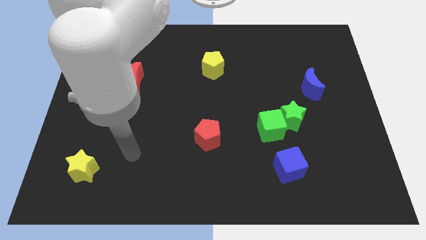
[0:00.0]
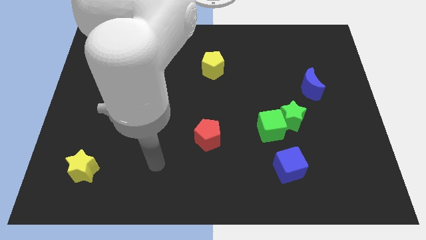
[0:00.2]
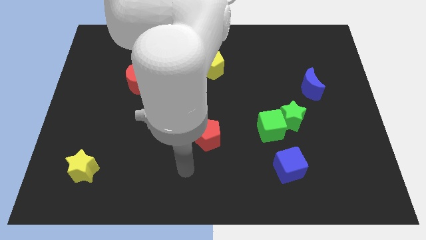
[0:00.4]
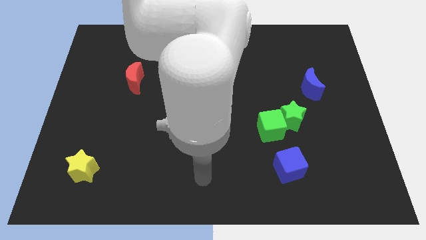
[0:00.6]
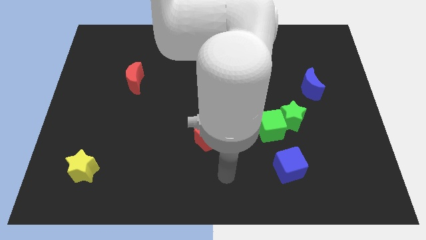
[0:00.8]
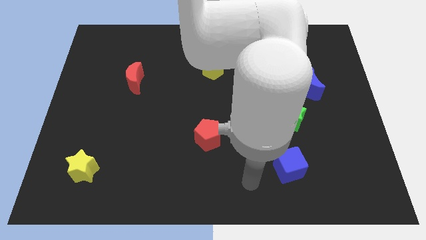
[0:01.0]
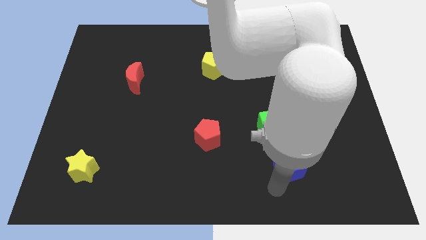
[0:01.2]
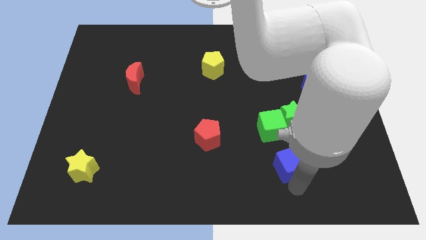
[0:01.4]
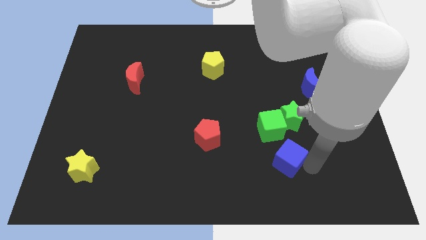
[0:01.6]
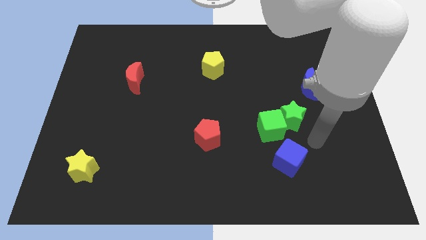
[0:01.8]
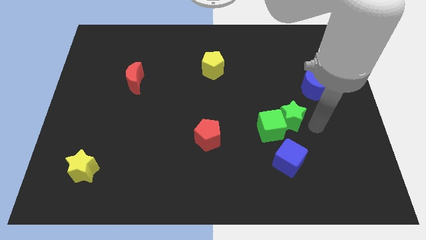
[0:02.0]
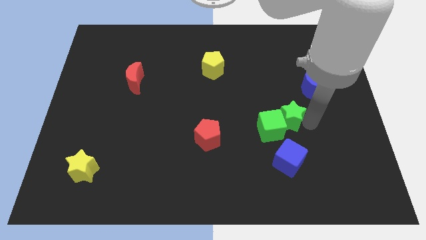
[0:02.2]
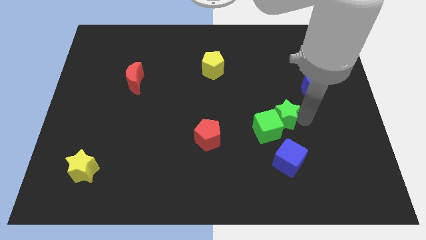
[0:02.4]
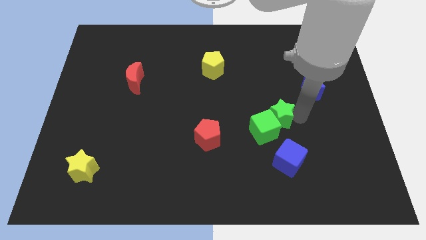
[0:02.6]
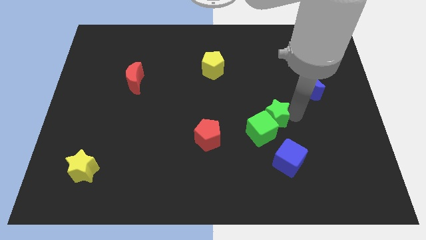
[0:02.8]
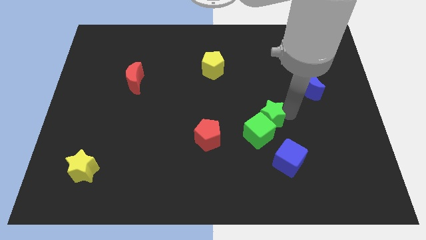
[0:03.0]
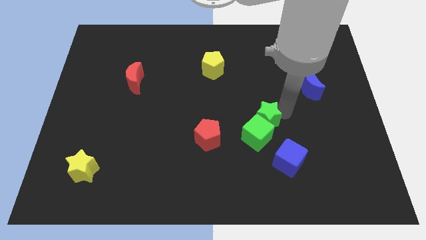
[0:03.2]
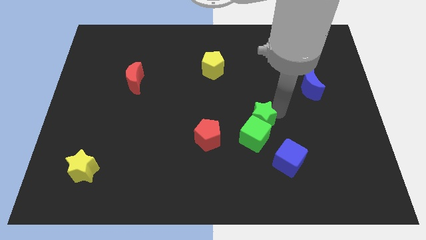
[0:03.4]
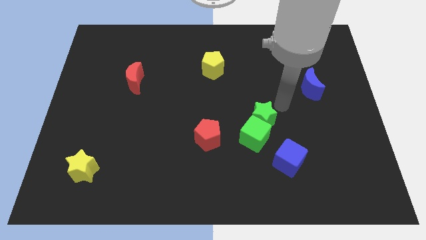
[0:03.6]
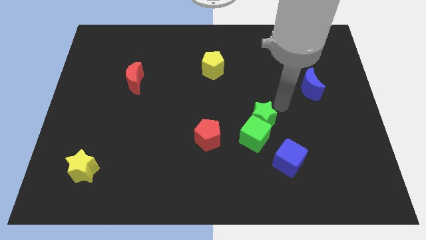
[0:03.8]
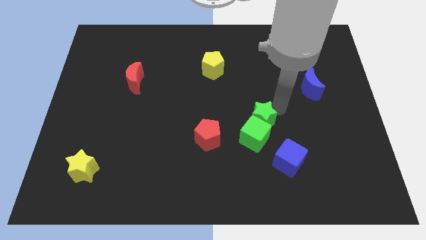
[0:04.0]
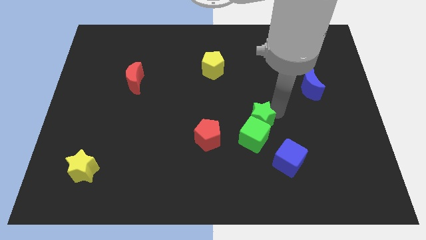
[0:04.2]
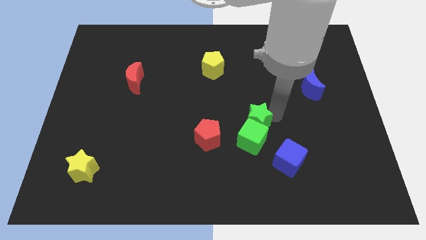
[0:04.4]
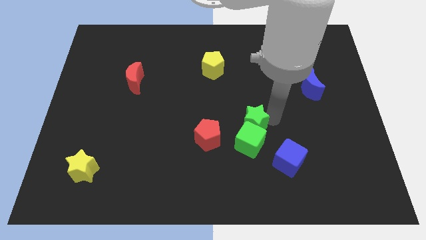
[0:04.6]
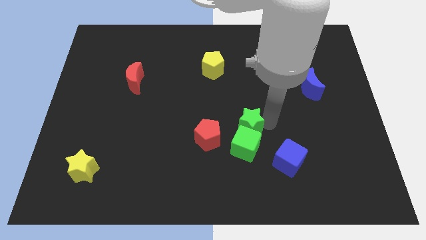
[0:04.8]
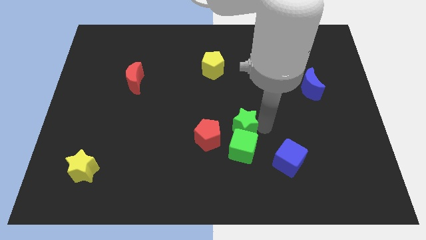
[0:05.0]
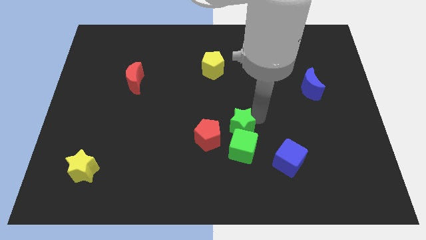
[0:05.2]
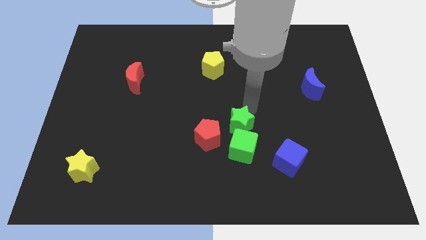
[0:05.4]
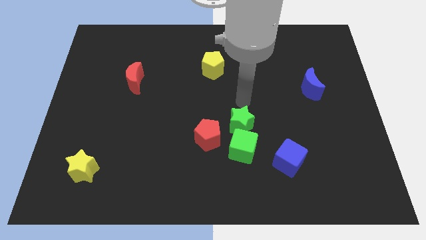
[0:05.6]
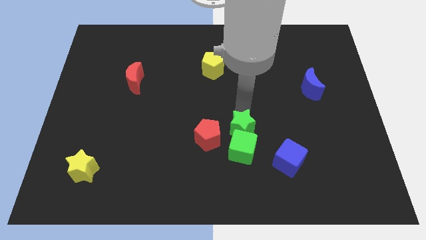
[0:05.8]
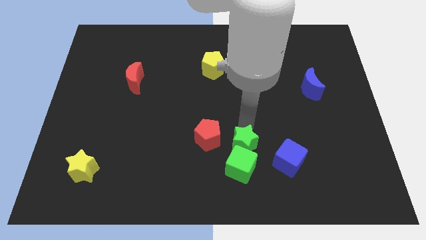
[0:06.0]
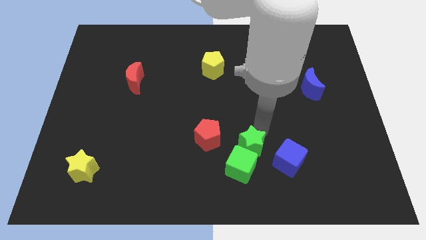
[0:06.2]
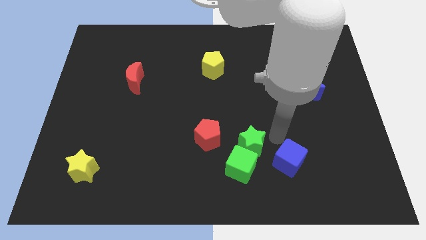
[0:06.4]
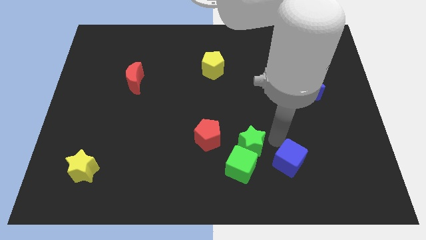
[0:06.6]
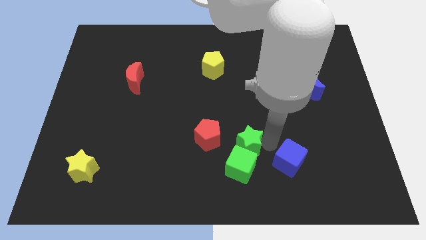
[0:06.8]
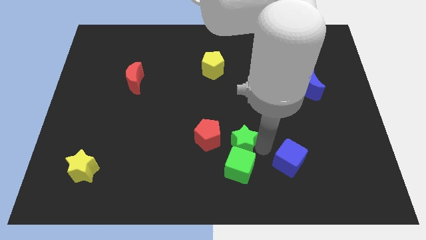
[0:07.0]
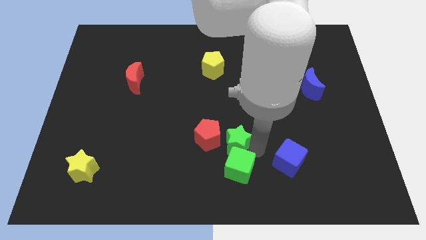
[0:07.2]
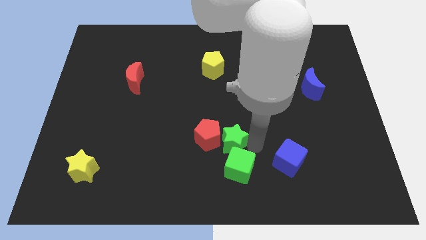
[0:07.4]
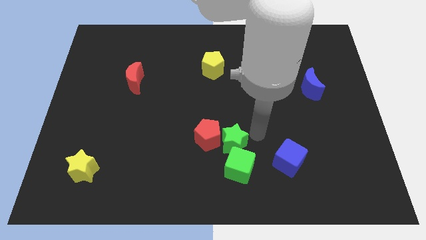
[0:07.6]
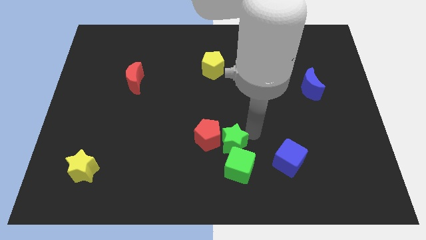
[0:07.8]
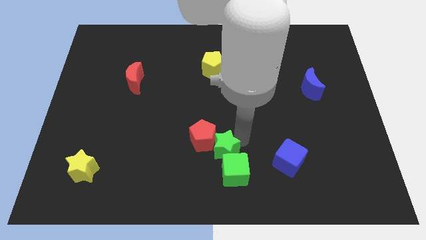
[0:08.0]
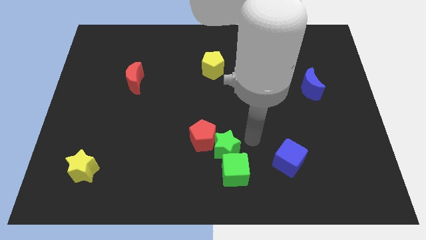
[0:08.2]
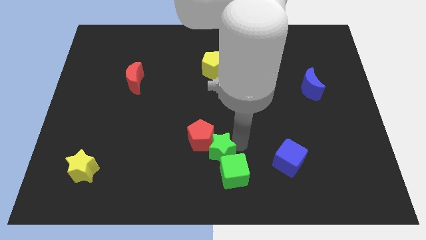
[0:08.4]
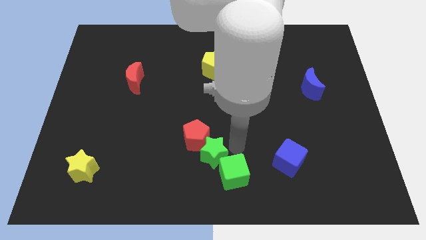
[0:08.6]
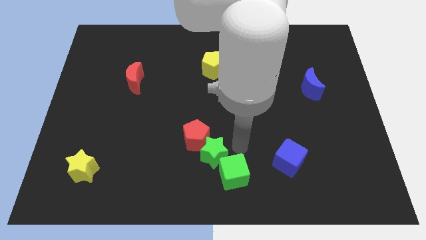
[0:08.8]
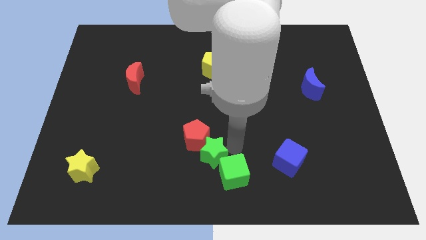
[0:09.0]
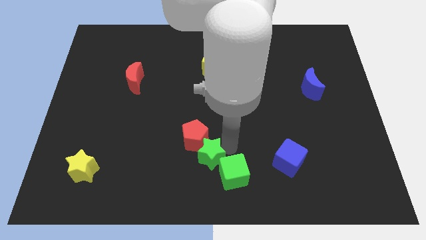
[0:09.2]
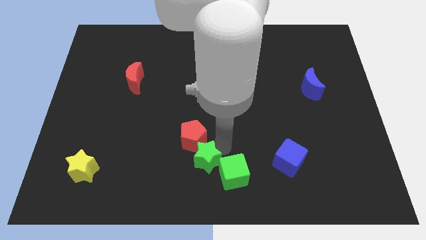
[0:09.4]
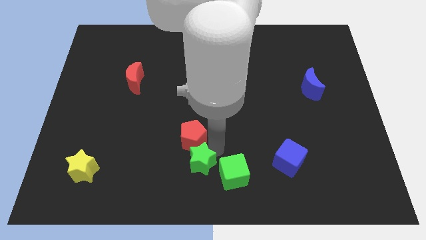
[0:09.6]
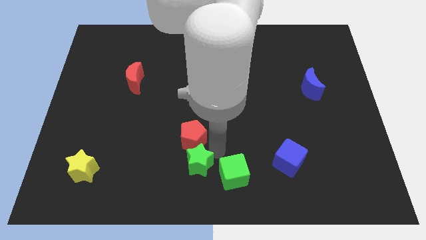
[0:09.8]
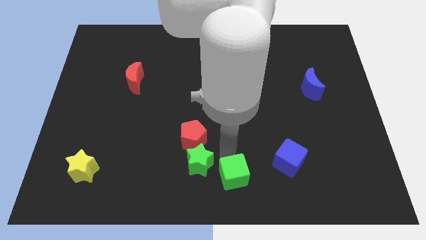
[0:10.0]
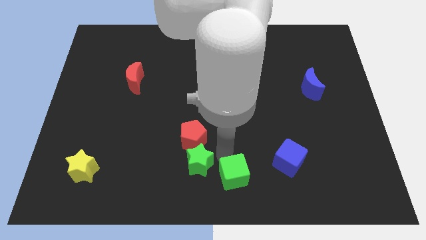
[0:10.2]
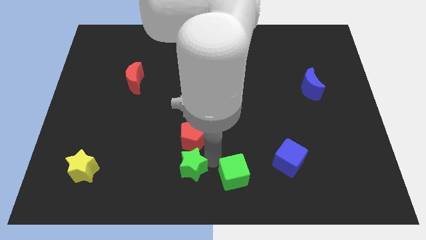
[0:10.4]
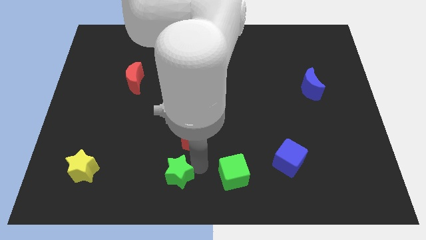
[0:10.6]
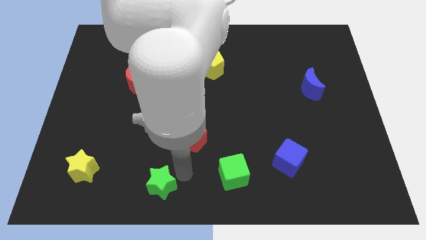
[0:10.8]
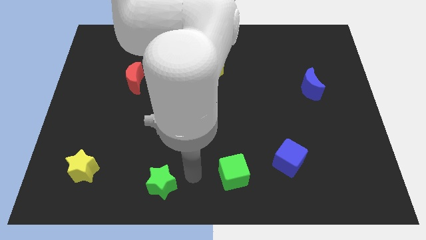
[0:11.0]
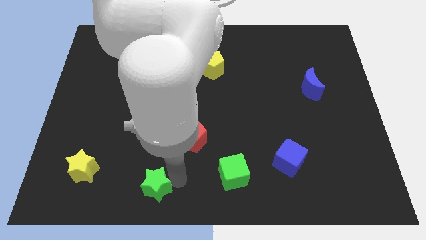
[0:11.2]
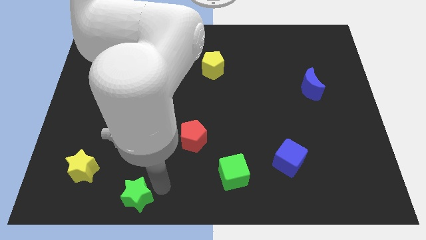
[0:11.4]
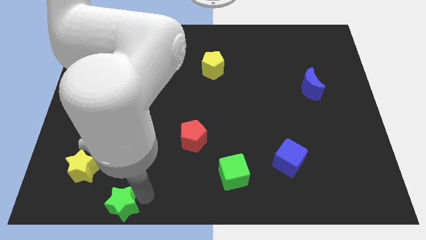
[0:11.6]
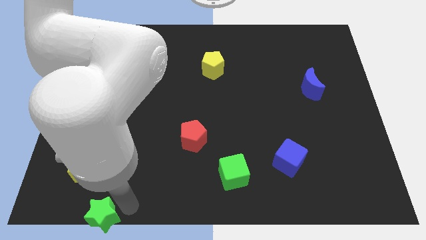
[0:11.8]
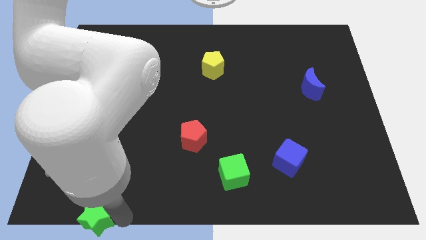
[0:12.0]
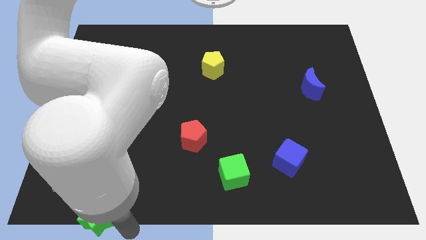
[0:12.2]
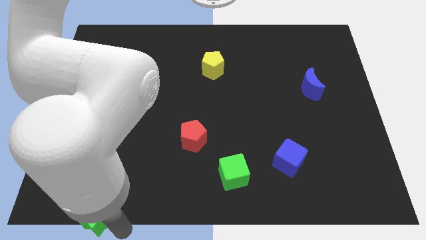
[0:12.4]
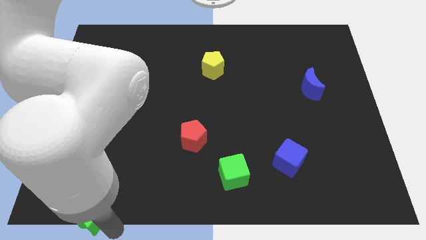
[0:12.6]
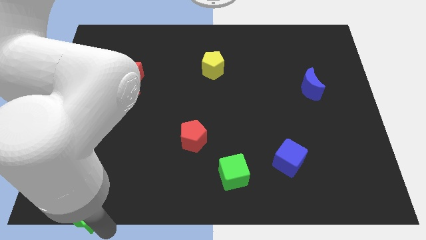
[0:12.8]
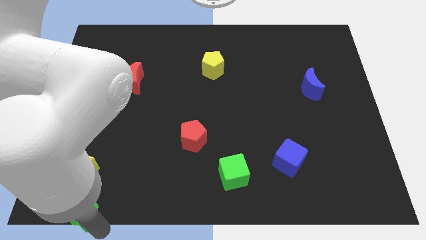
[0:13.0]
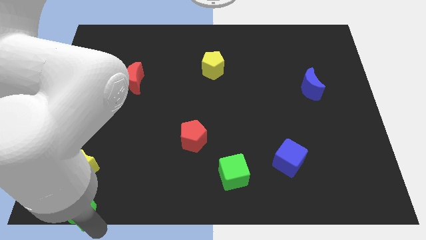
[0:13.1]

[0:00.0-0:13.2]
slide the green star to the lower left corner
